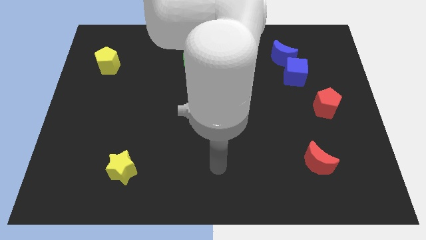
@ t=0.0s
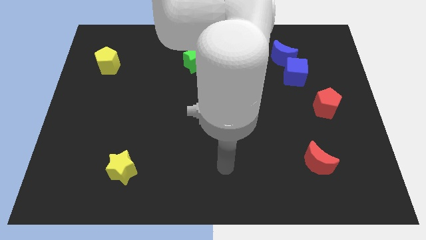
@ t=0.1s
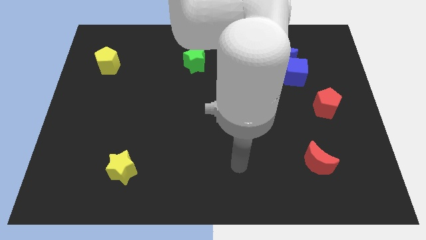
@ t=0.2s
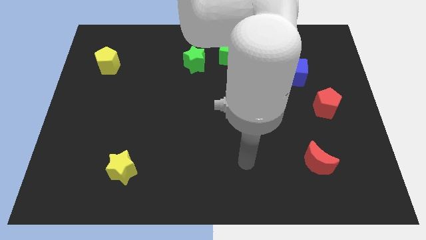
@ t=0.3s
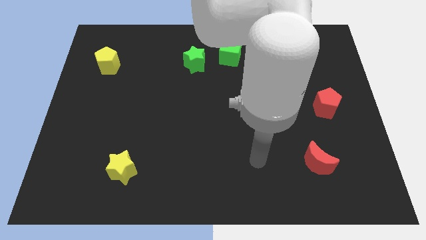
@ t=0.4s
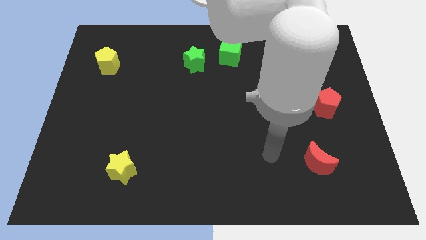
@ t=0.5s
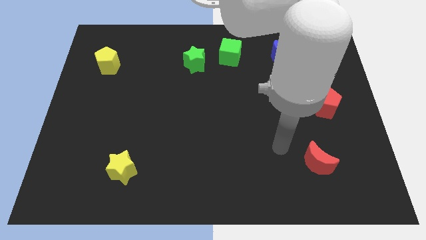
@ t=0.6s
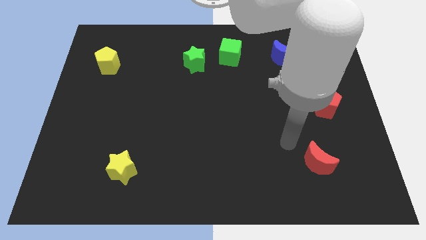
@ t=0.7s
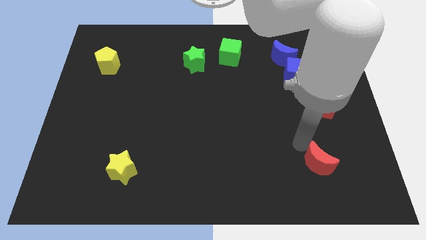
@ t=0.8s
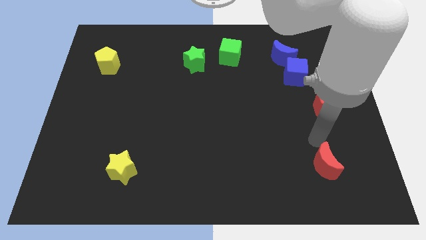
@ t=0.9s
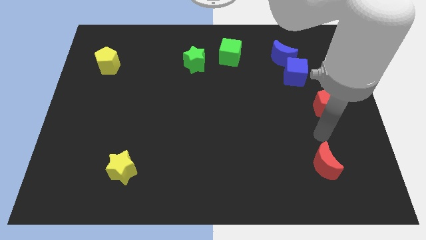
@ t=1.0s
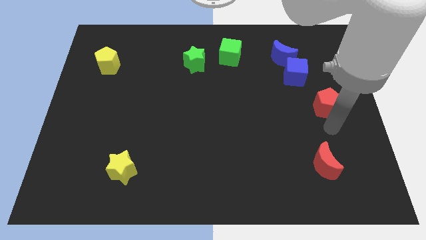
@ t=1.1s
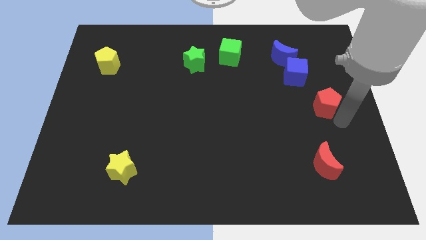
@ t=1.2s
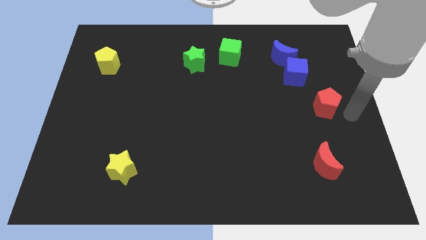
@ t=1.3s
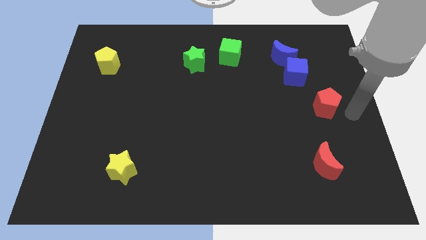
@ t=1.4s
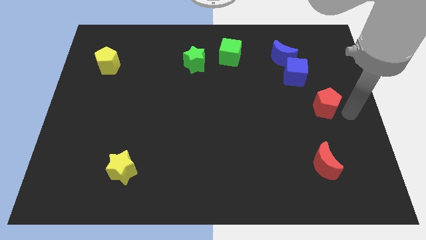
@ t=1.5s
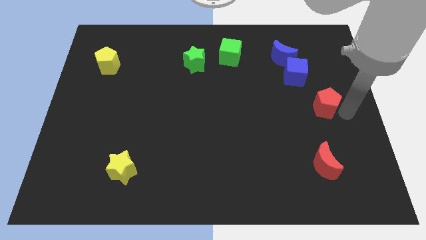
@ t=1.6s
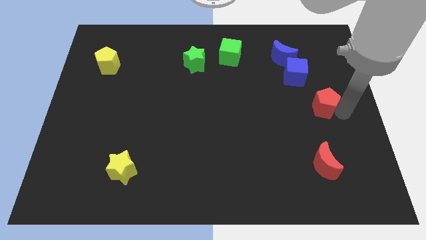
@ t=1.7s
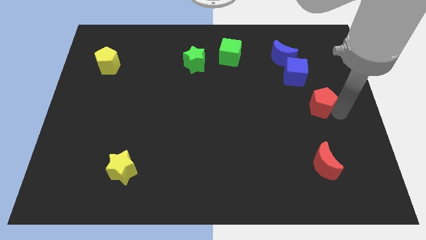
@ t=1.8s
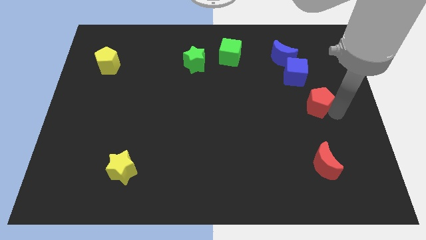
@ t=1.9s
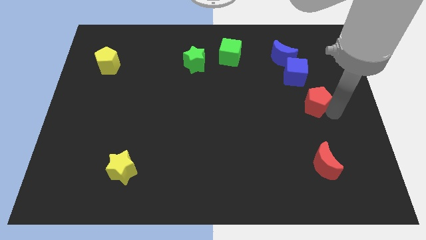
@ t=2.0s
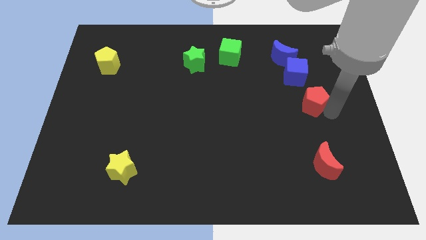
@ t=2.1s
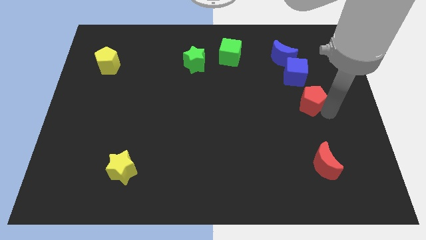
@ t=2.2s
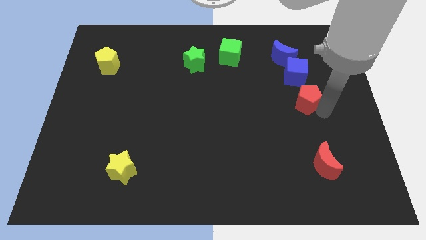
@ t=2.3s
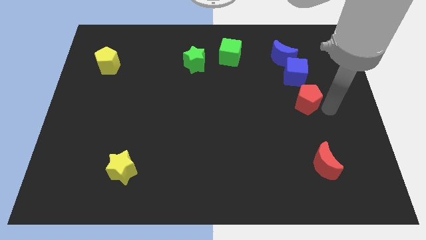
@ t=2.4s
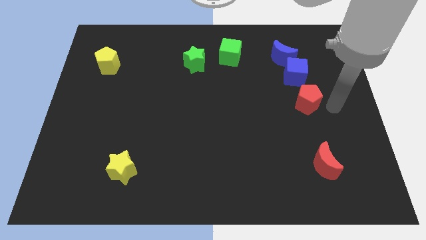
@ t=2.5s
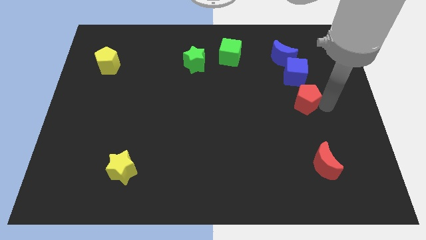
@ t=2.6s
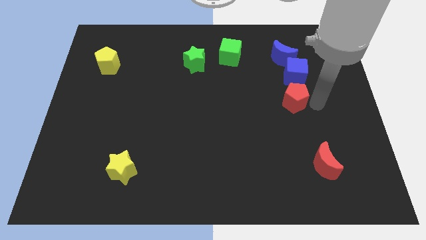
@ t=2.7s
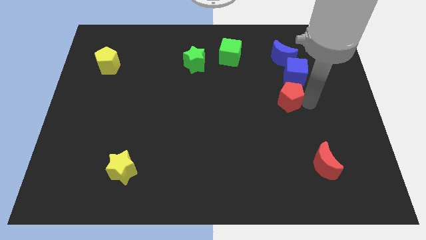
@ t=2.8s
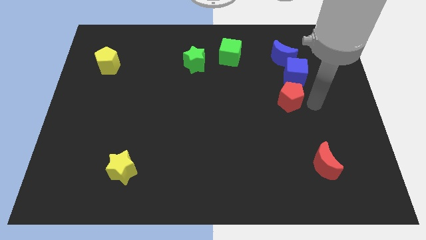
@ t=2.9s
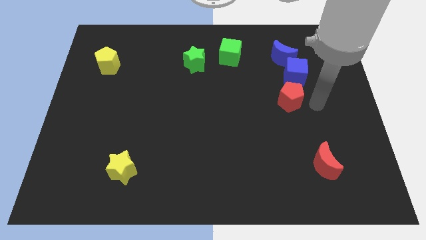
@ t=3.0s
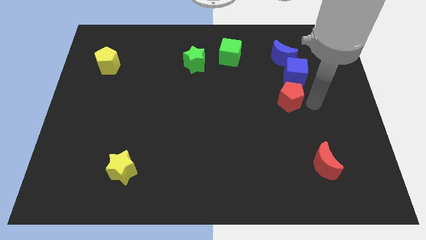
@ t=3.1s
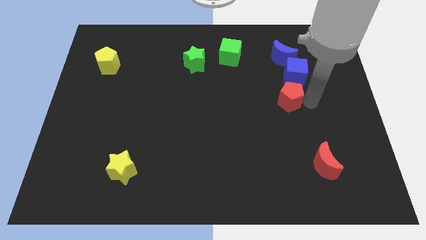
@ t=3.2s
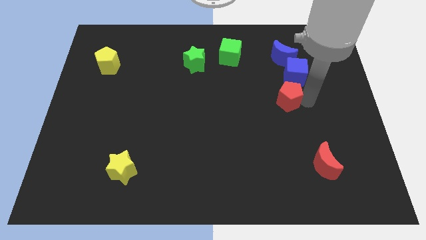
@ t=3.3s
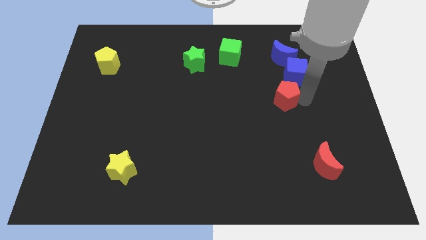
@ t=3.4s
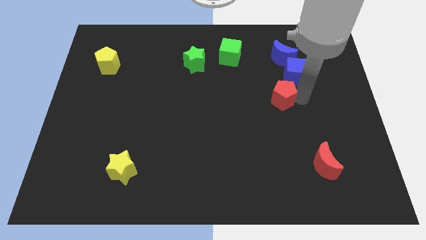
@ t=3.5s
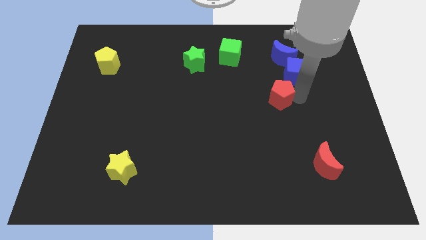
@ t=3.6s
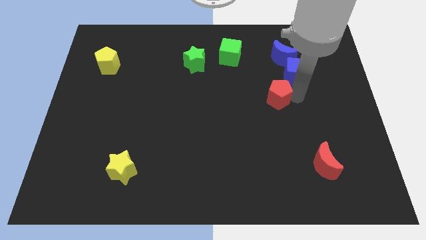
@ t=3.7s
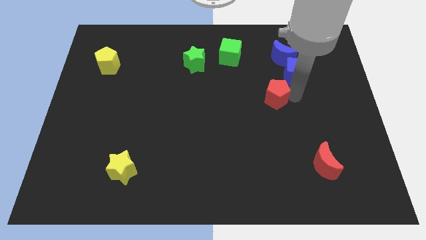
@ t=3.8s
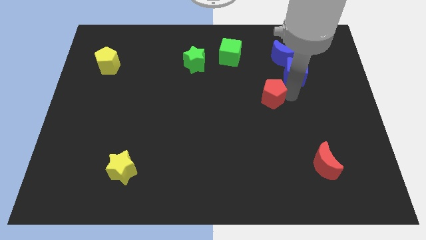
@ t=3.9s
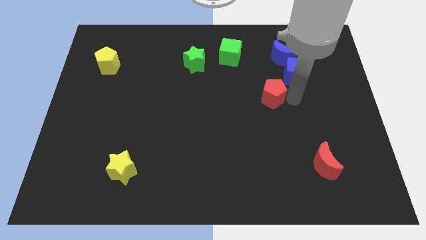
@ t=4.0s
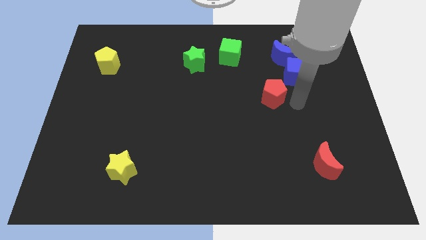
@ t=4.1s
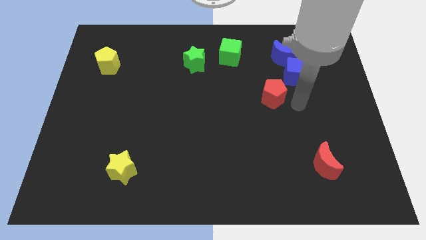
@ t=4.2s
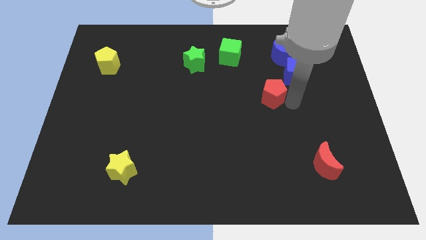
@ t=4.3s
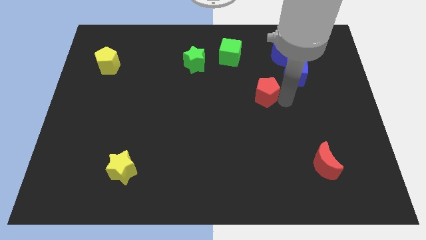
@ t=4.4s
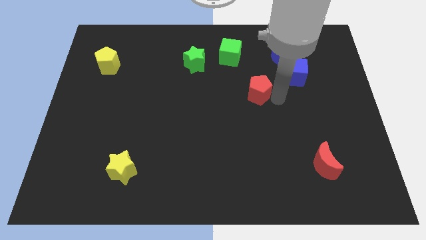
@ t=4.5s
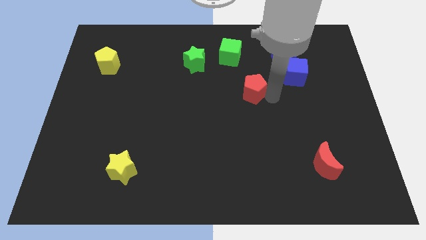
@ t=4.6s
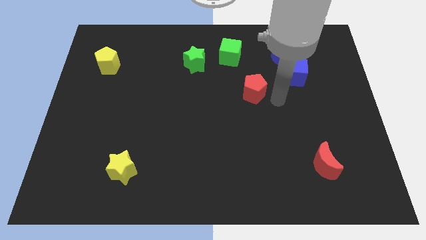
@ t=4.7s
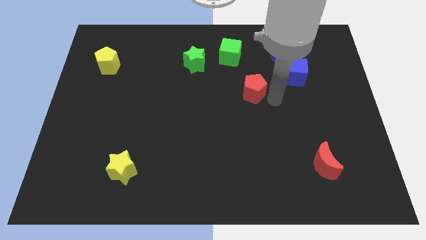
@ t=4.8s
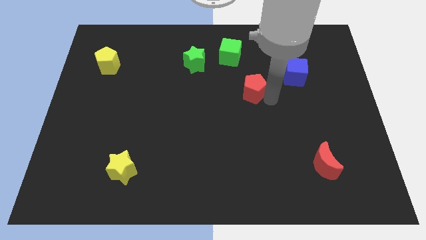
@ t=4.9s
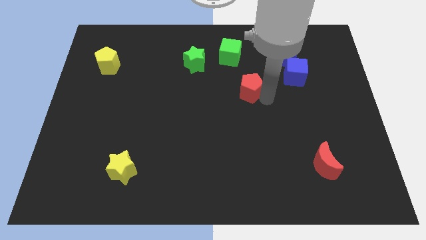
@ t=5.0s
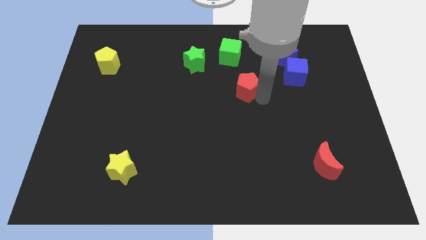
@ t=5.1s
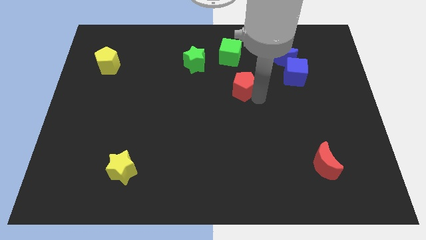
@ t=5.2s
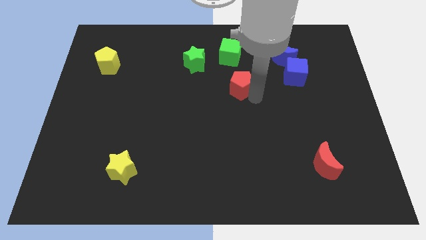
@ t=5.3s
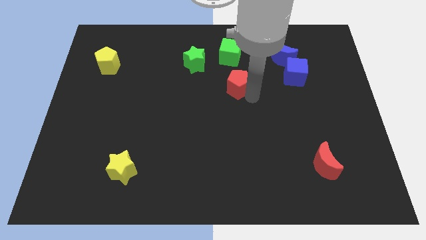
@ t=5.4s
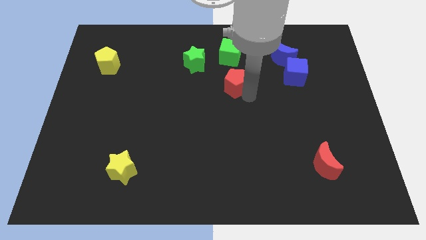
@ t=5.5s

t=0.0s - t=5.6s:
move the red pentagon to the bottom right of the green star

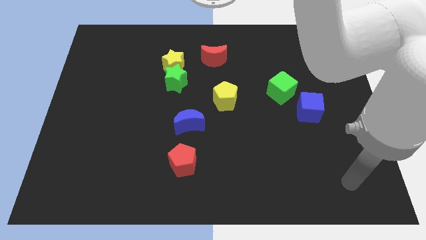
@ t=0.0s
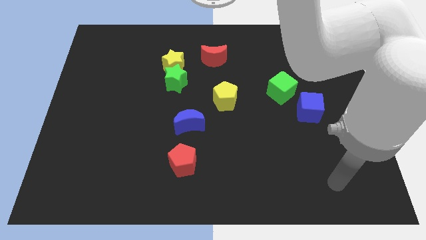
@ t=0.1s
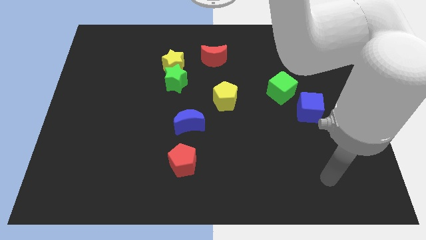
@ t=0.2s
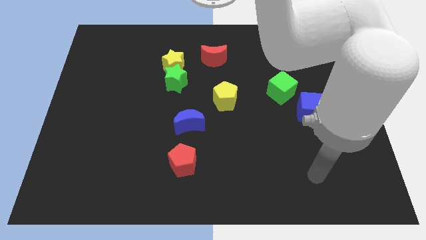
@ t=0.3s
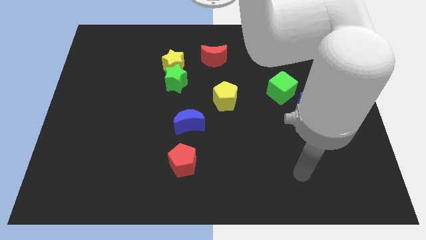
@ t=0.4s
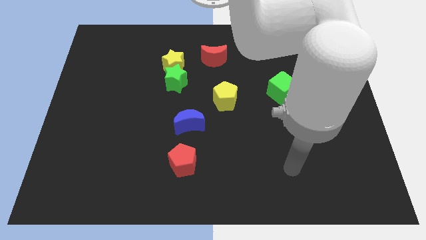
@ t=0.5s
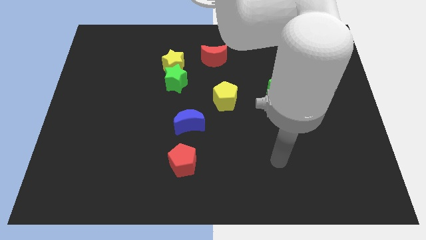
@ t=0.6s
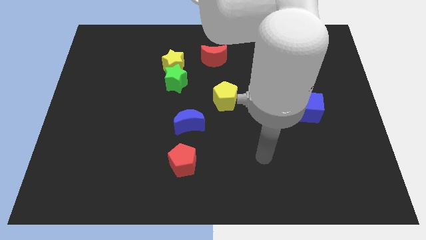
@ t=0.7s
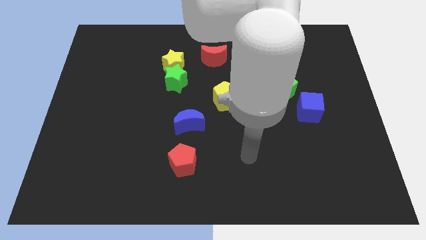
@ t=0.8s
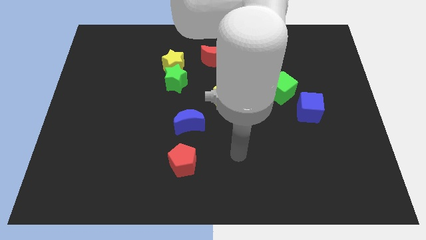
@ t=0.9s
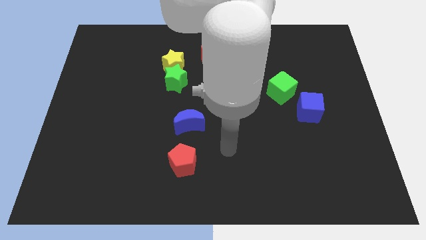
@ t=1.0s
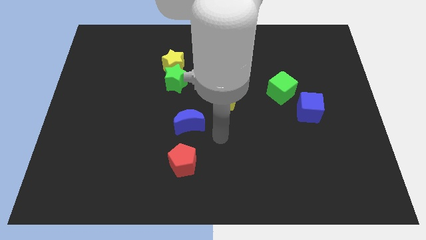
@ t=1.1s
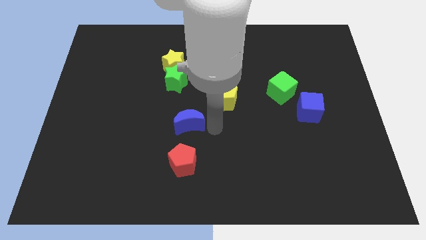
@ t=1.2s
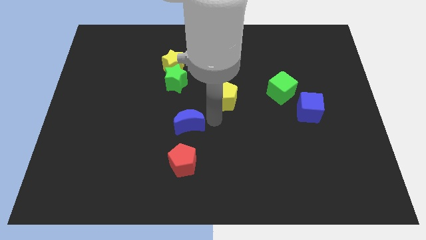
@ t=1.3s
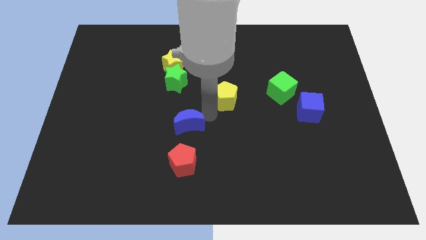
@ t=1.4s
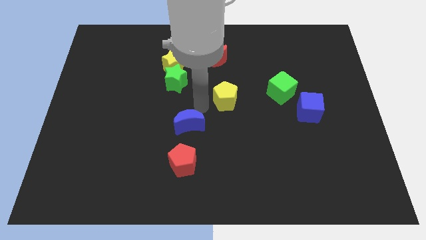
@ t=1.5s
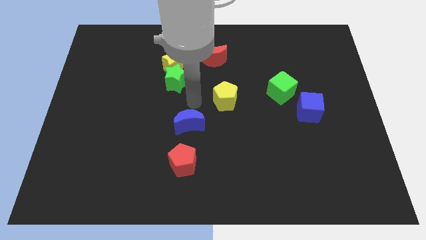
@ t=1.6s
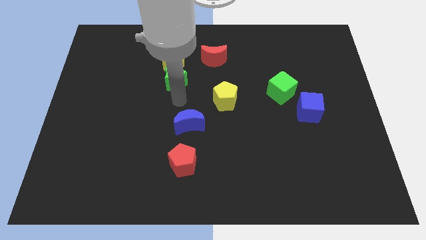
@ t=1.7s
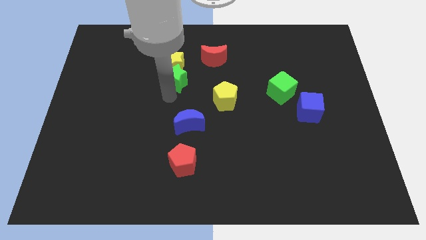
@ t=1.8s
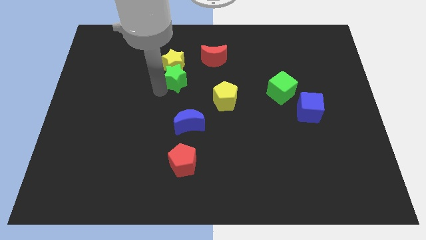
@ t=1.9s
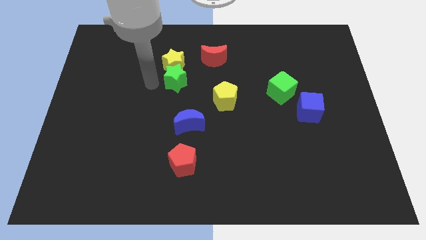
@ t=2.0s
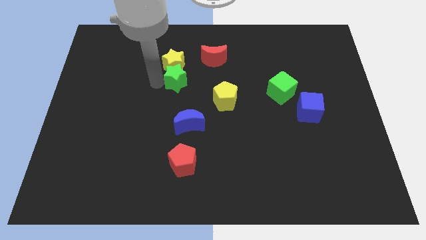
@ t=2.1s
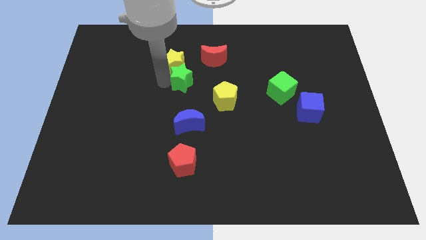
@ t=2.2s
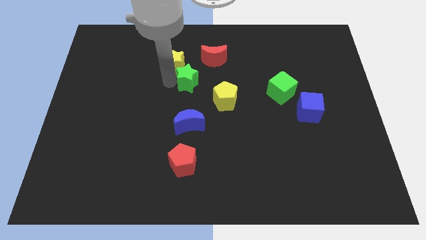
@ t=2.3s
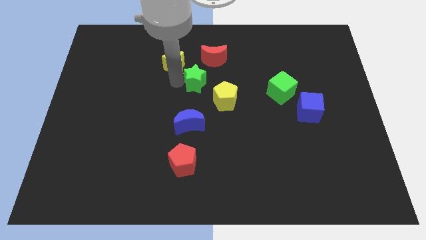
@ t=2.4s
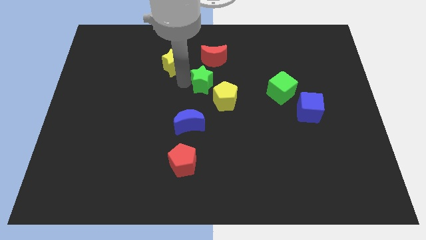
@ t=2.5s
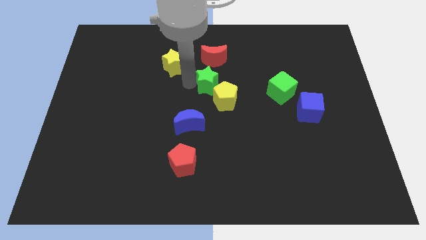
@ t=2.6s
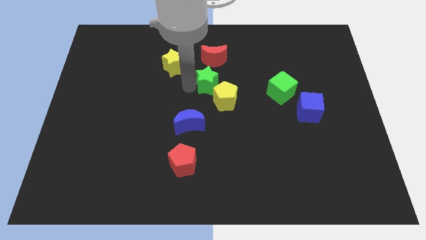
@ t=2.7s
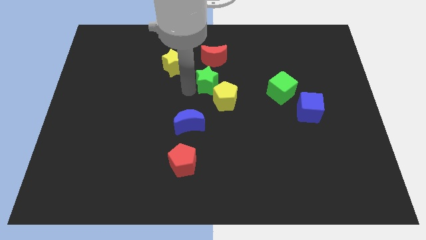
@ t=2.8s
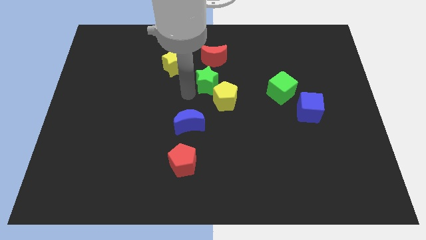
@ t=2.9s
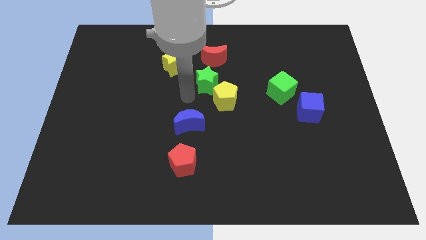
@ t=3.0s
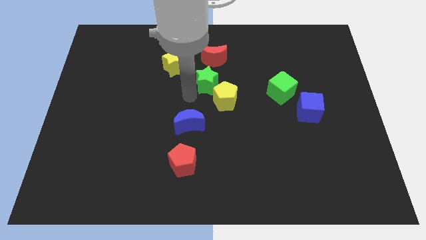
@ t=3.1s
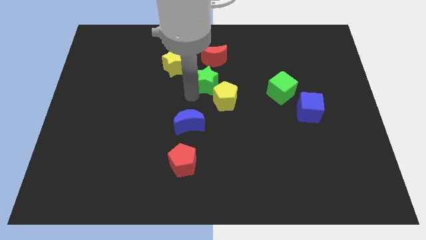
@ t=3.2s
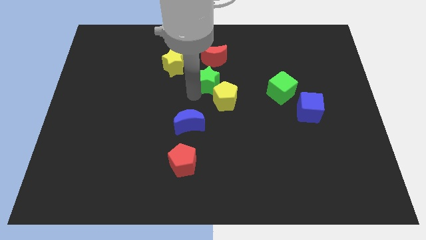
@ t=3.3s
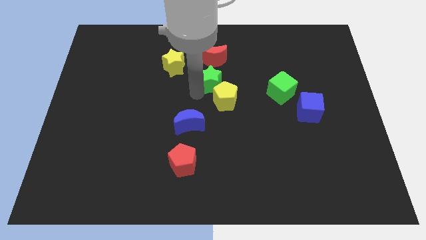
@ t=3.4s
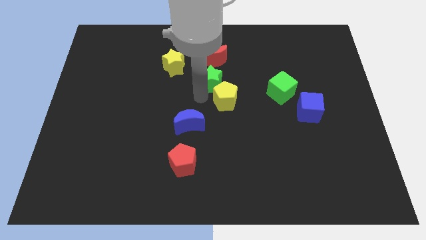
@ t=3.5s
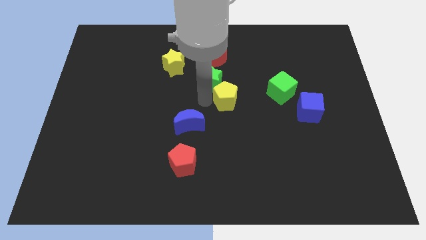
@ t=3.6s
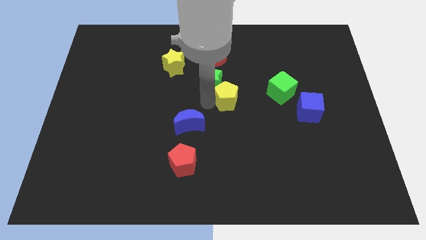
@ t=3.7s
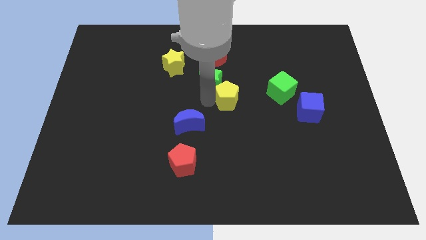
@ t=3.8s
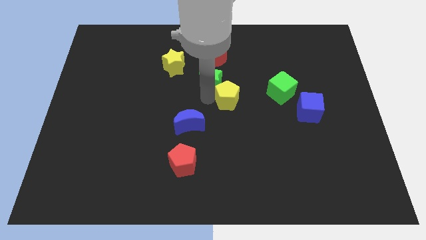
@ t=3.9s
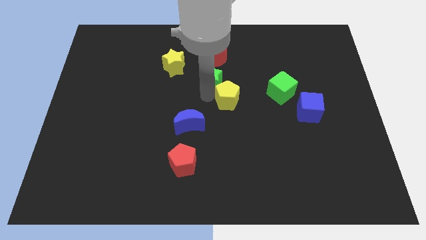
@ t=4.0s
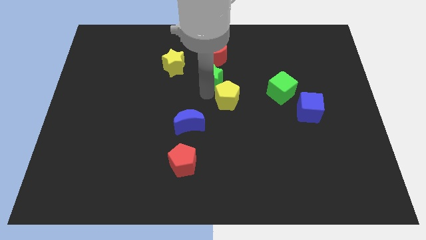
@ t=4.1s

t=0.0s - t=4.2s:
move the green star right of the yellow star
